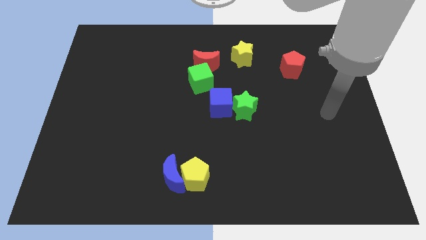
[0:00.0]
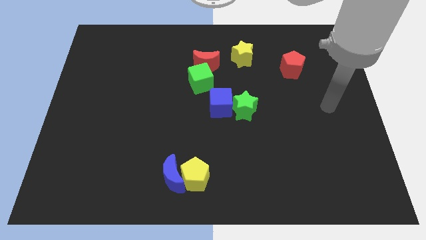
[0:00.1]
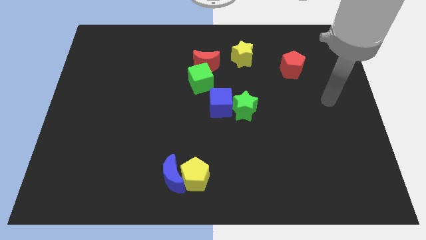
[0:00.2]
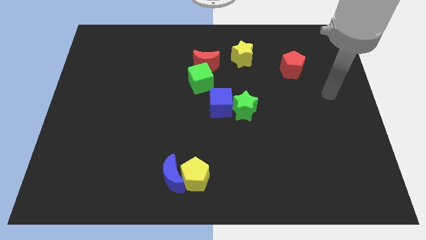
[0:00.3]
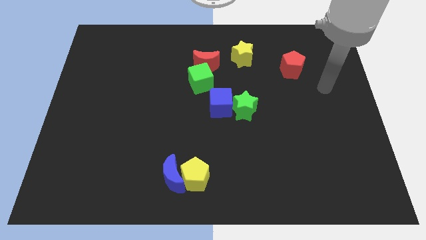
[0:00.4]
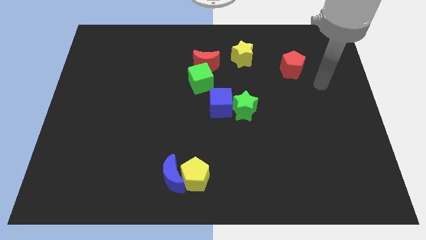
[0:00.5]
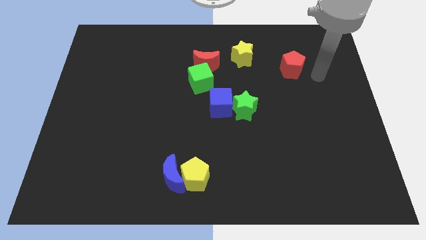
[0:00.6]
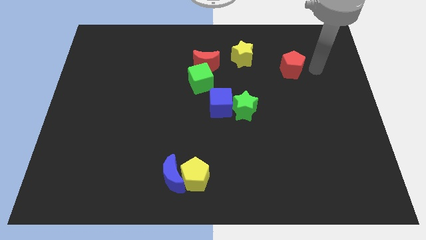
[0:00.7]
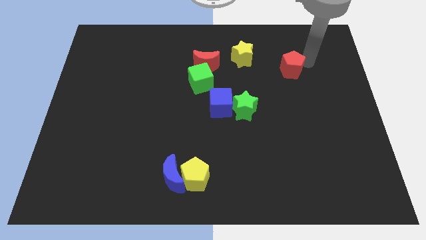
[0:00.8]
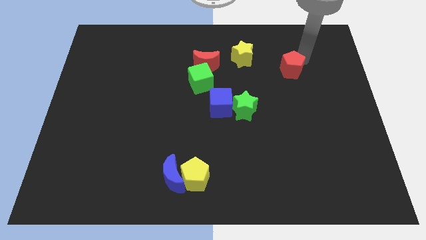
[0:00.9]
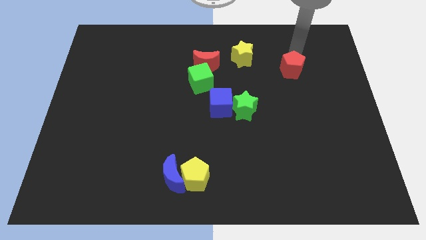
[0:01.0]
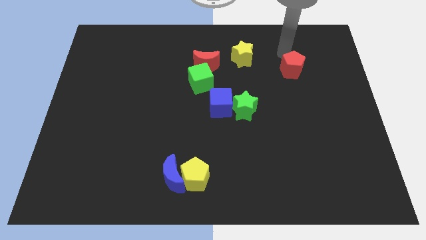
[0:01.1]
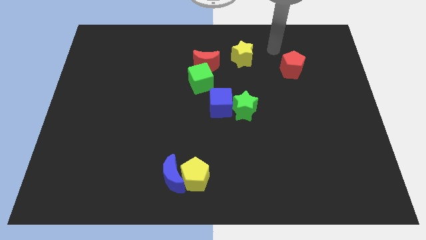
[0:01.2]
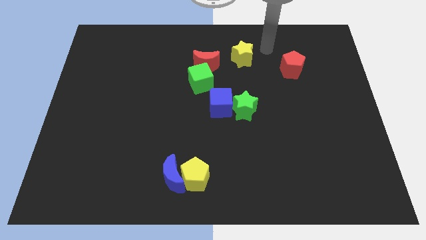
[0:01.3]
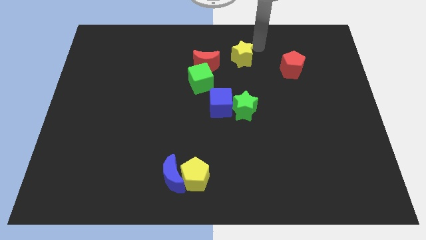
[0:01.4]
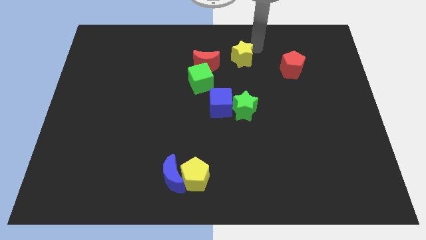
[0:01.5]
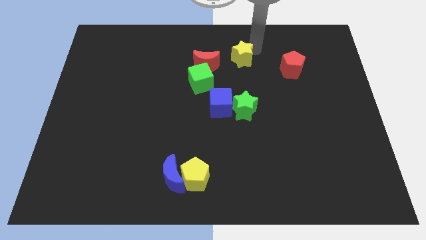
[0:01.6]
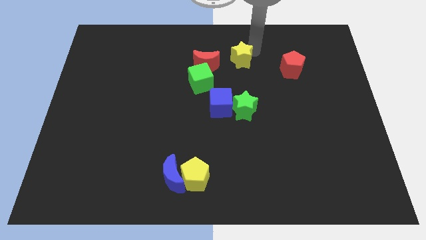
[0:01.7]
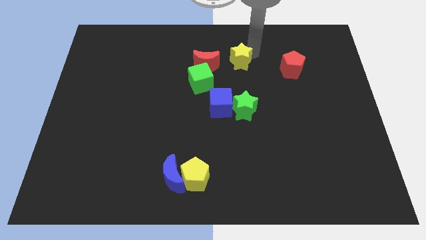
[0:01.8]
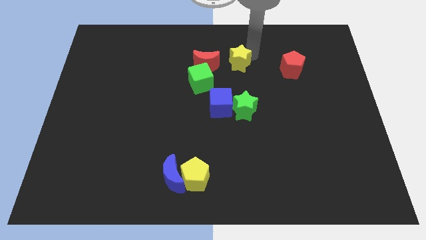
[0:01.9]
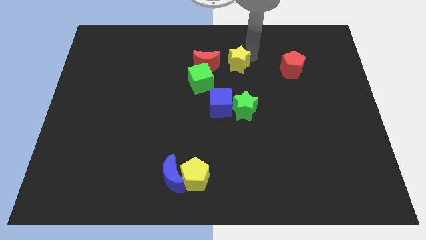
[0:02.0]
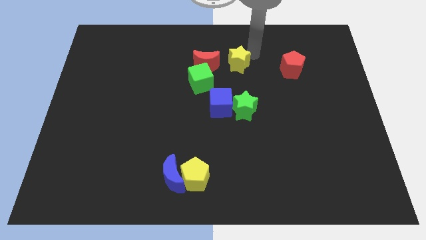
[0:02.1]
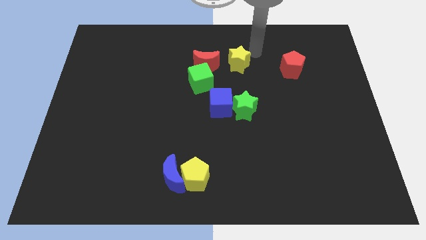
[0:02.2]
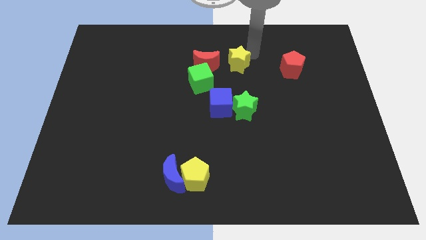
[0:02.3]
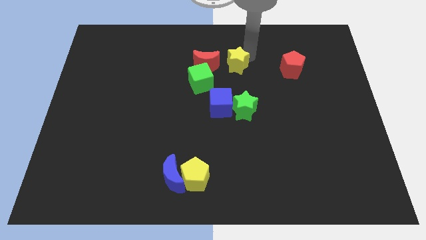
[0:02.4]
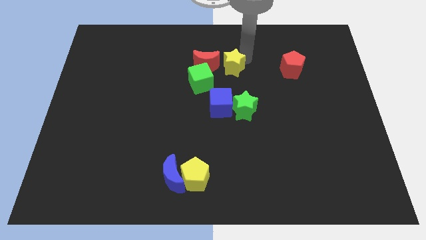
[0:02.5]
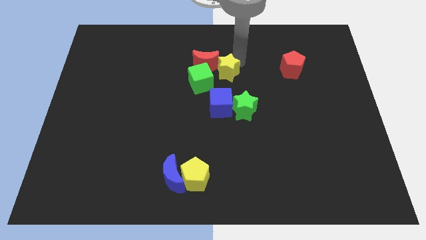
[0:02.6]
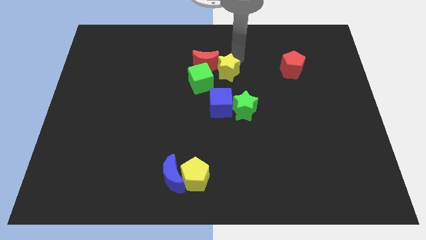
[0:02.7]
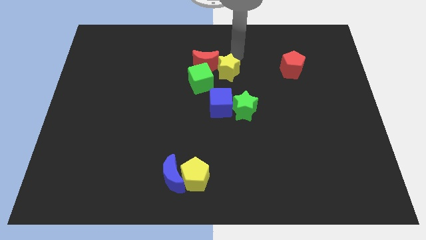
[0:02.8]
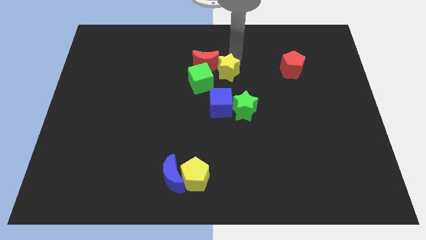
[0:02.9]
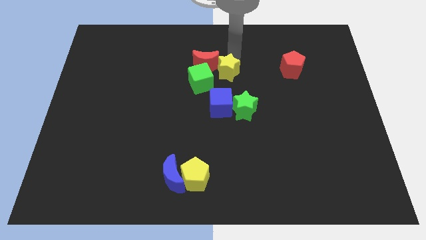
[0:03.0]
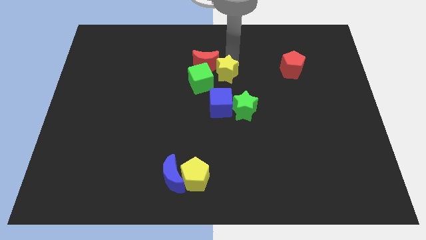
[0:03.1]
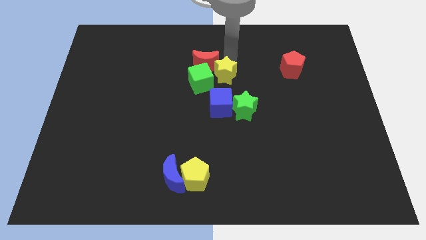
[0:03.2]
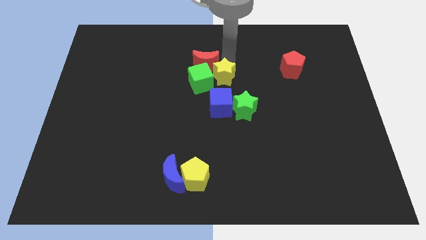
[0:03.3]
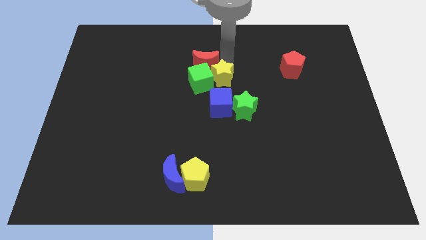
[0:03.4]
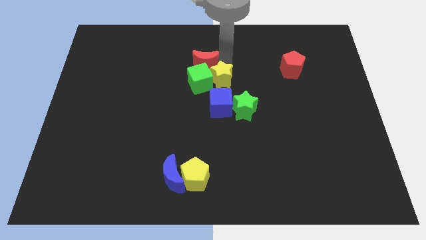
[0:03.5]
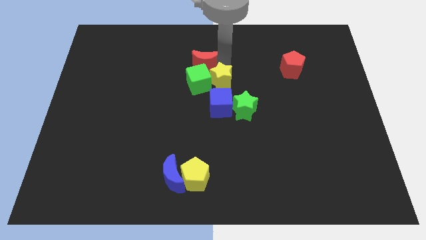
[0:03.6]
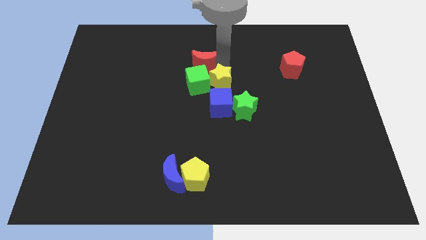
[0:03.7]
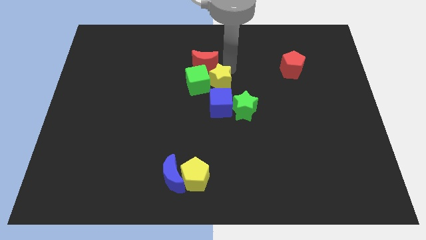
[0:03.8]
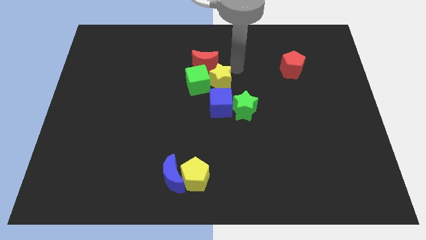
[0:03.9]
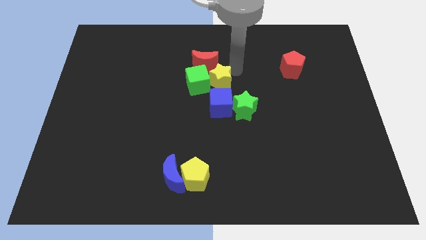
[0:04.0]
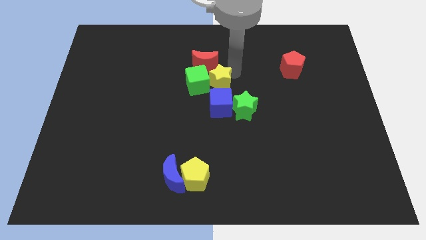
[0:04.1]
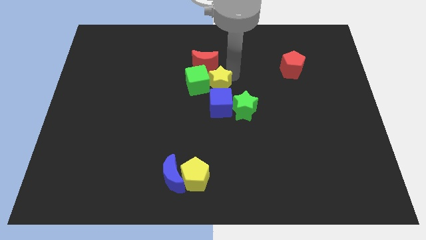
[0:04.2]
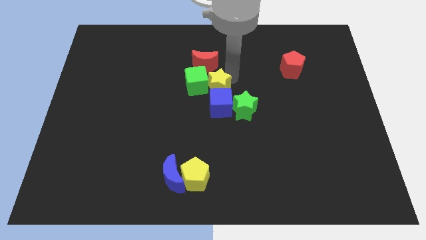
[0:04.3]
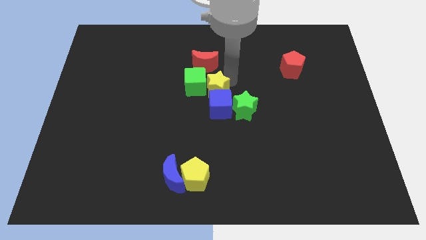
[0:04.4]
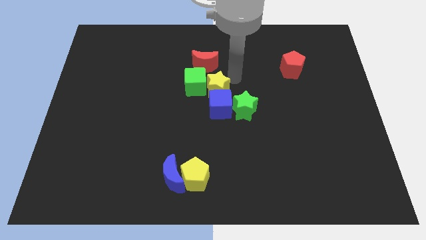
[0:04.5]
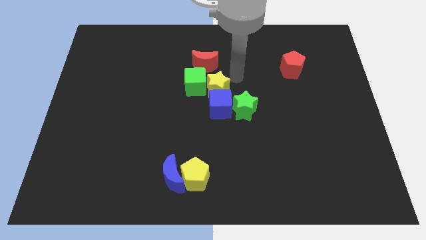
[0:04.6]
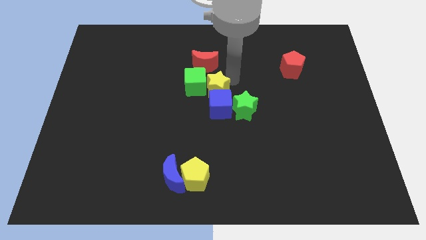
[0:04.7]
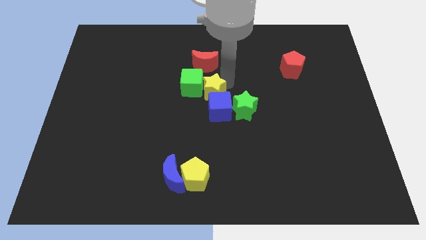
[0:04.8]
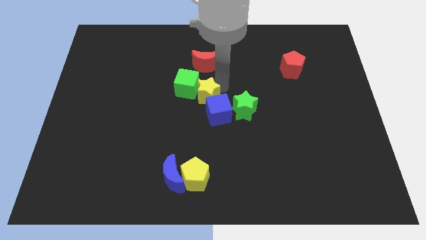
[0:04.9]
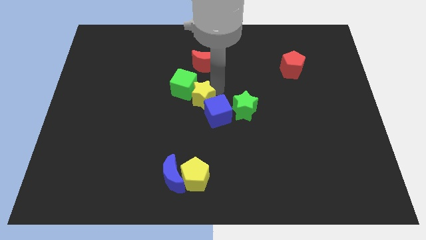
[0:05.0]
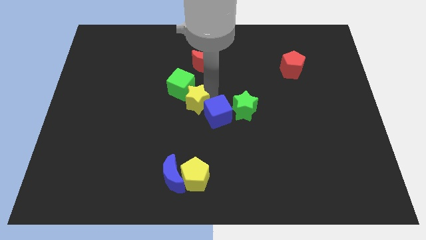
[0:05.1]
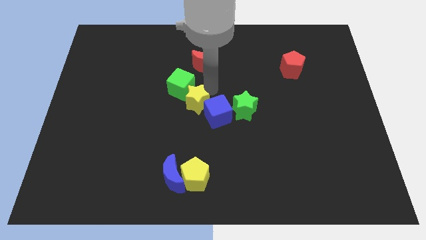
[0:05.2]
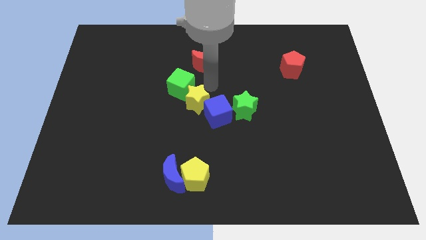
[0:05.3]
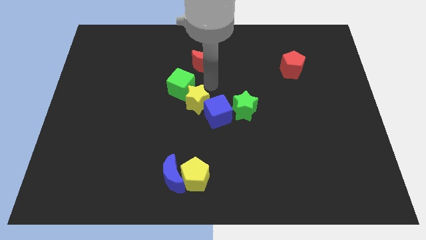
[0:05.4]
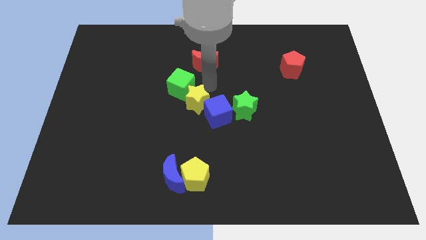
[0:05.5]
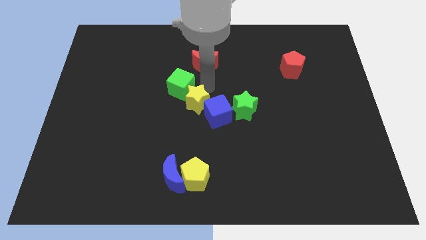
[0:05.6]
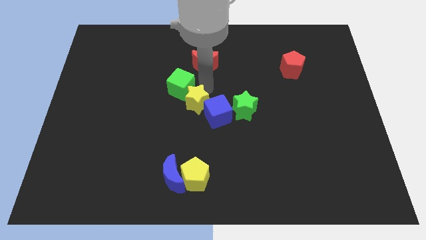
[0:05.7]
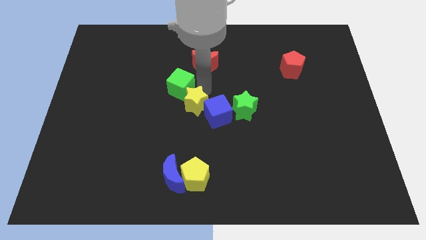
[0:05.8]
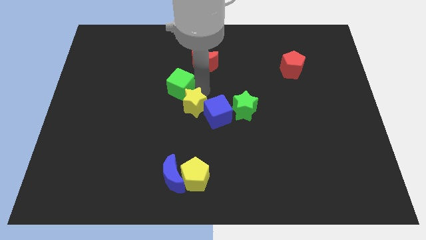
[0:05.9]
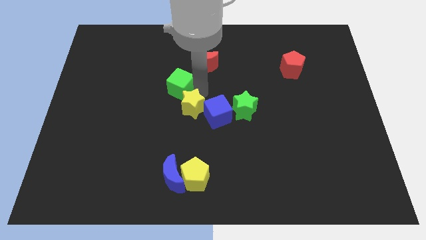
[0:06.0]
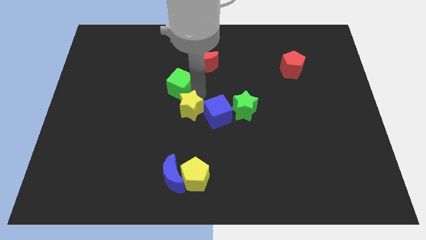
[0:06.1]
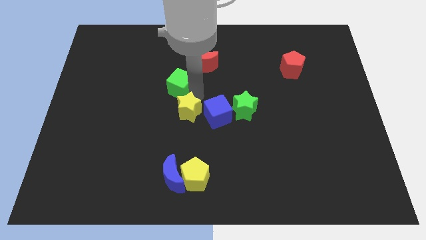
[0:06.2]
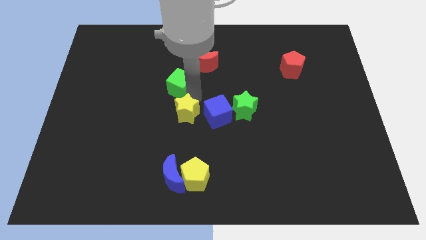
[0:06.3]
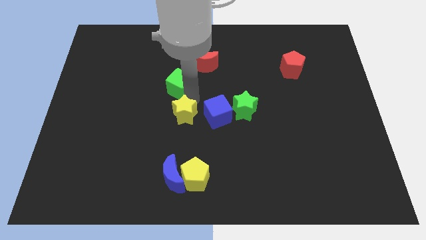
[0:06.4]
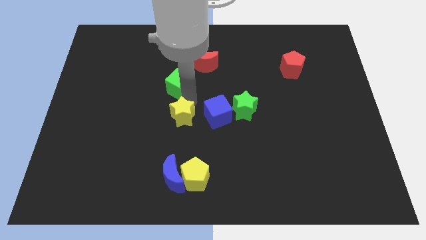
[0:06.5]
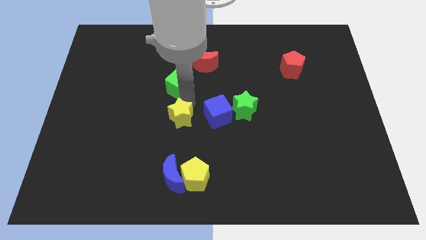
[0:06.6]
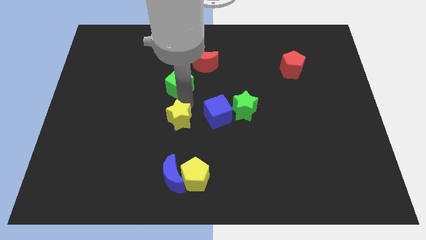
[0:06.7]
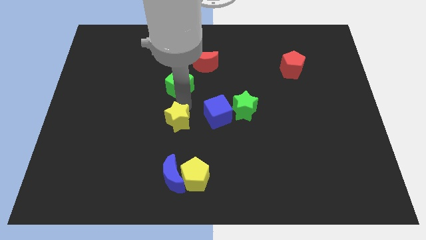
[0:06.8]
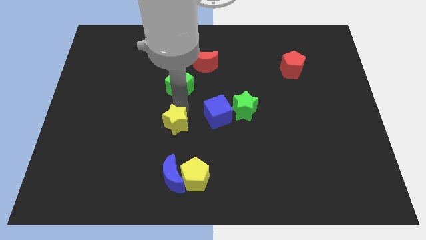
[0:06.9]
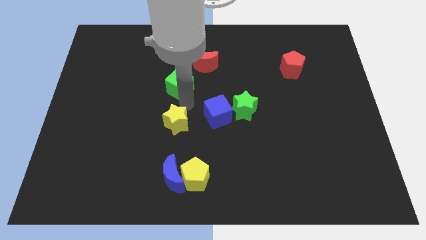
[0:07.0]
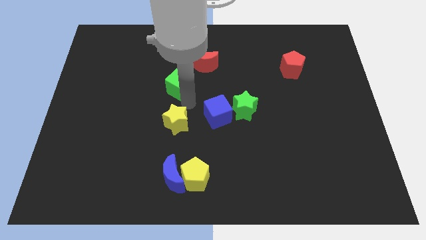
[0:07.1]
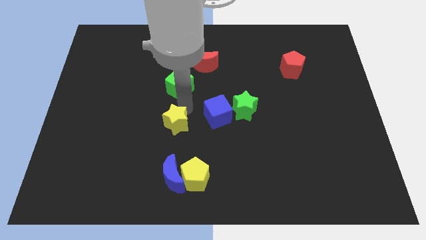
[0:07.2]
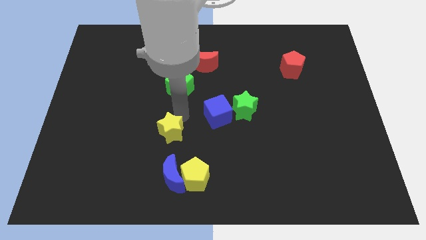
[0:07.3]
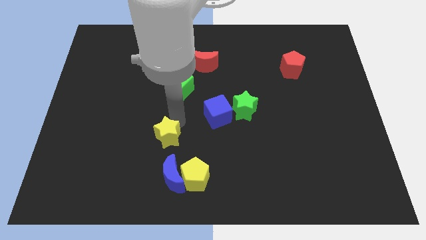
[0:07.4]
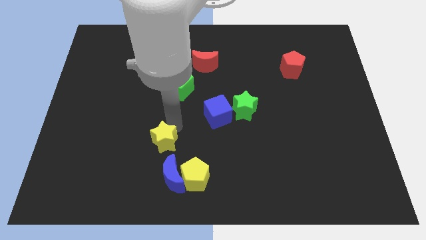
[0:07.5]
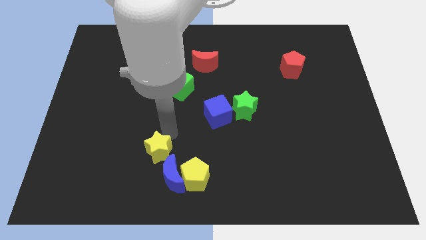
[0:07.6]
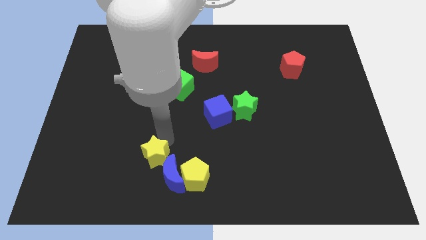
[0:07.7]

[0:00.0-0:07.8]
slide the yellow star left of the yellow pentagon

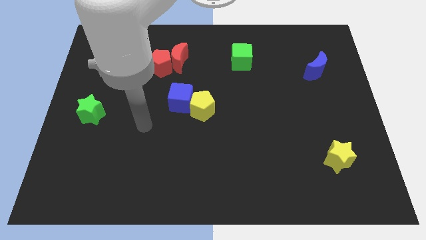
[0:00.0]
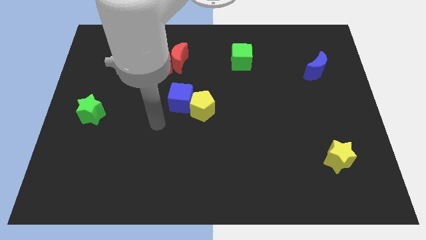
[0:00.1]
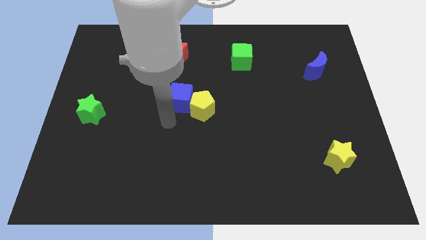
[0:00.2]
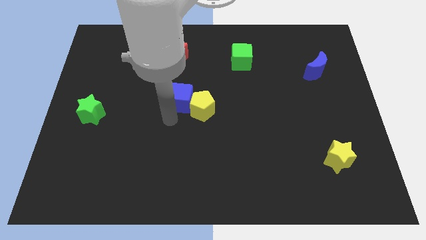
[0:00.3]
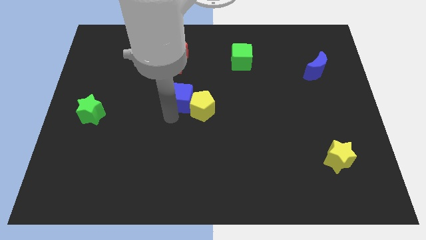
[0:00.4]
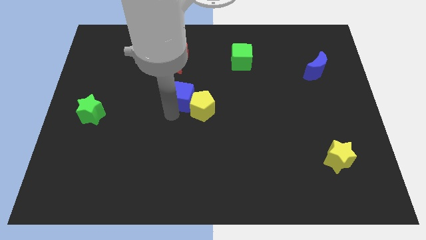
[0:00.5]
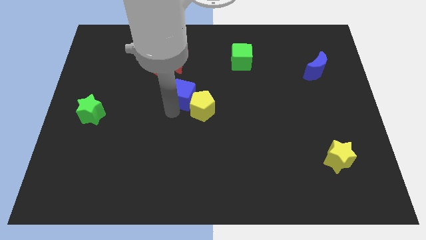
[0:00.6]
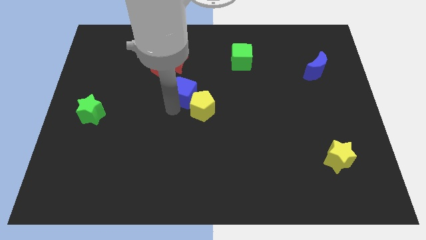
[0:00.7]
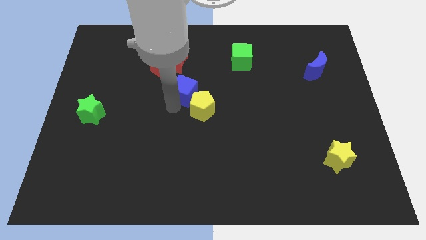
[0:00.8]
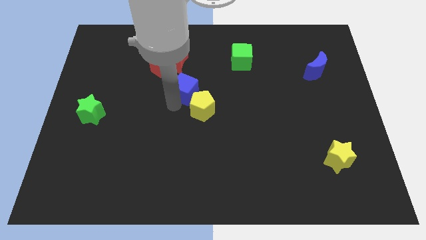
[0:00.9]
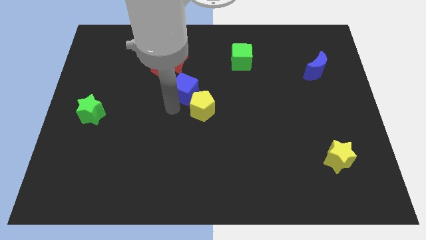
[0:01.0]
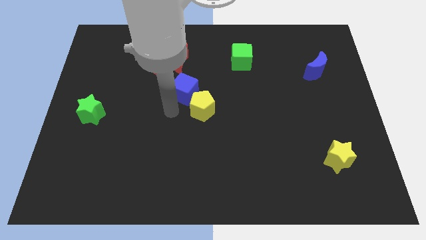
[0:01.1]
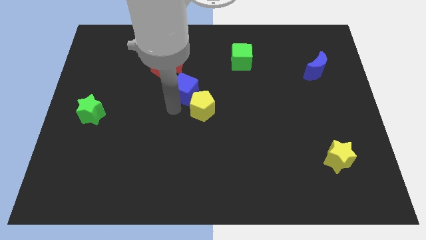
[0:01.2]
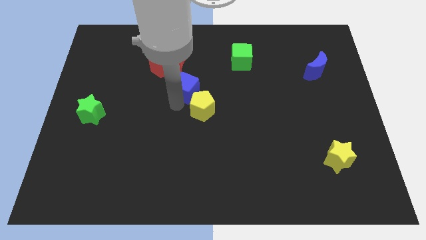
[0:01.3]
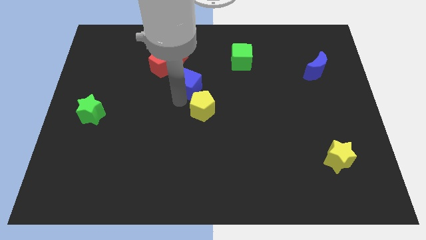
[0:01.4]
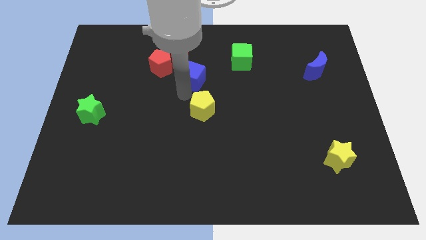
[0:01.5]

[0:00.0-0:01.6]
slide the blue cube to the right of the red pentagon
